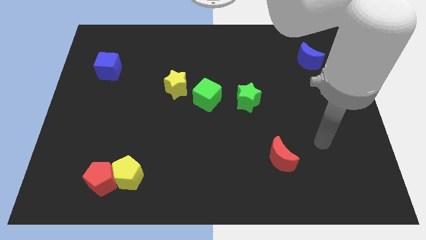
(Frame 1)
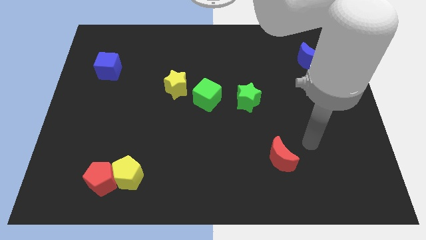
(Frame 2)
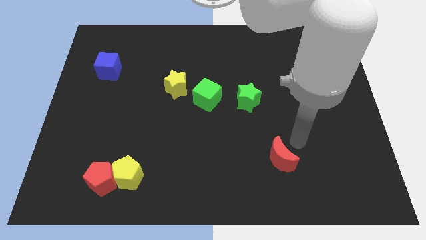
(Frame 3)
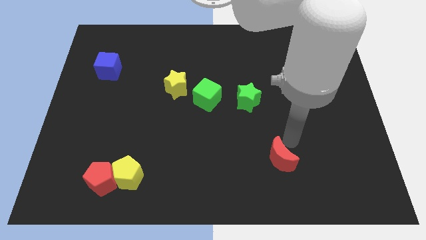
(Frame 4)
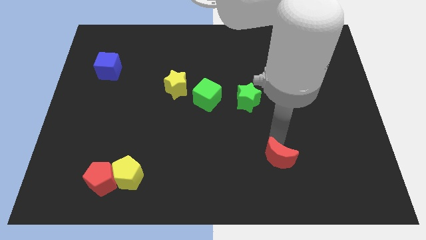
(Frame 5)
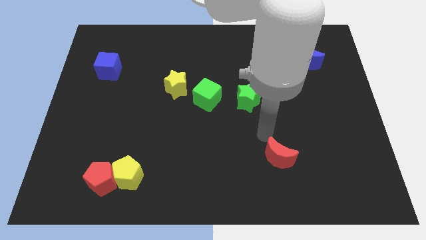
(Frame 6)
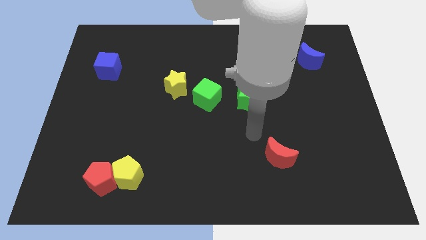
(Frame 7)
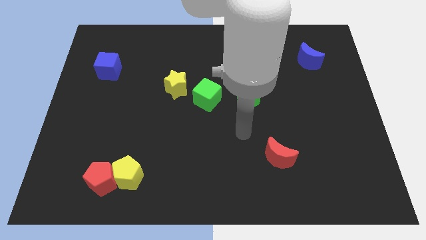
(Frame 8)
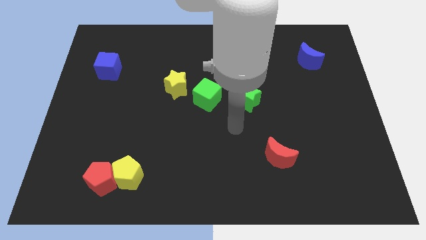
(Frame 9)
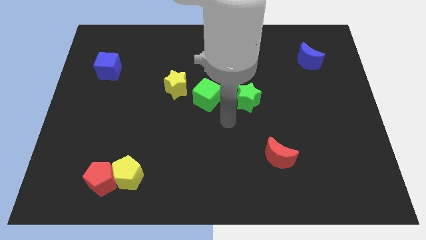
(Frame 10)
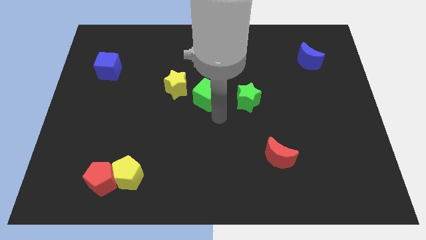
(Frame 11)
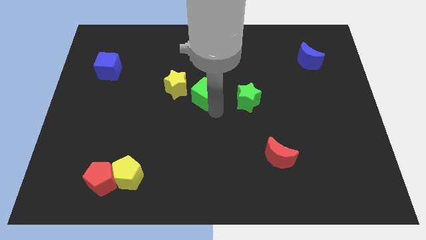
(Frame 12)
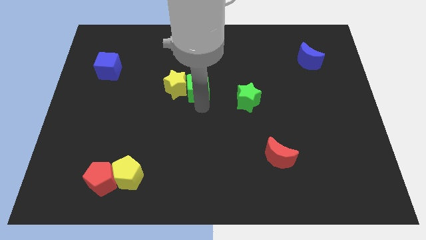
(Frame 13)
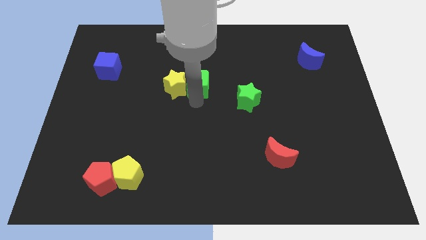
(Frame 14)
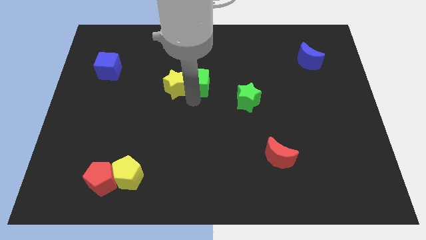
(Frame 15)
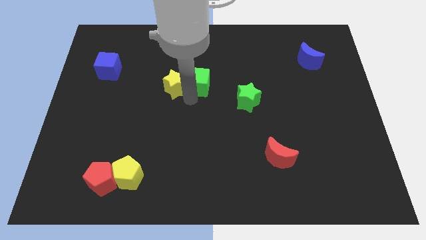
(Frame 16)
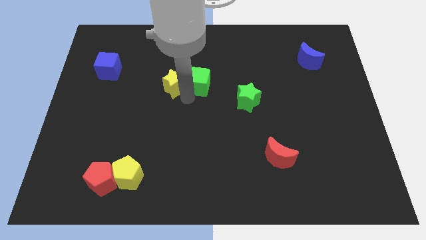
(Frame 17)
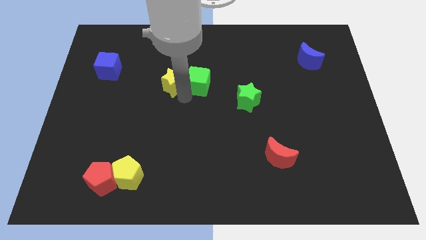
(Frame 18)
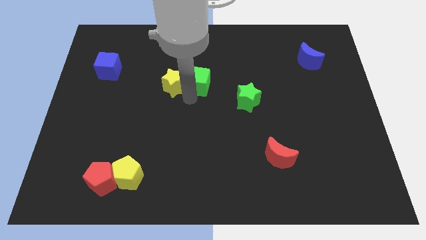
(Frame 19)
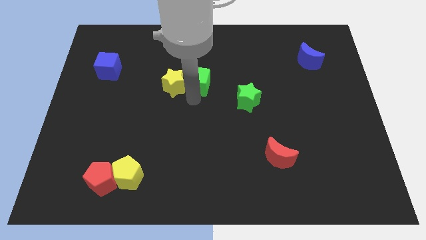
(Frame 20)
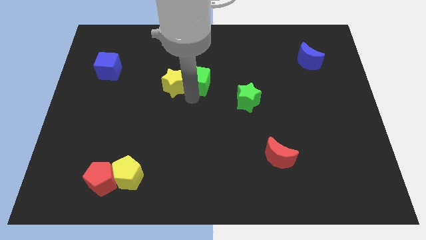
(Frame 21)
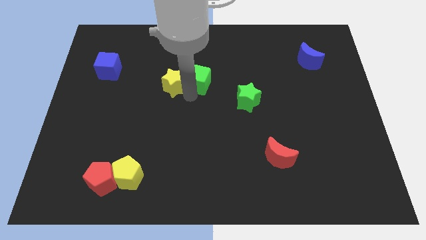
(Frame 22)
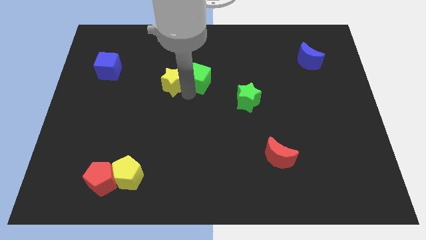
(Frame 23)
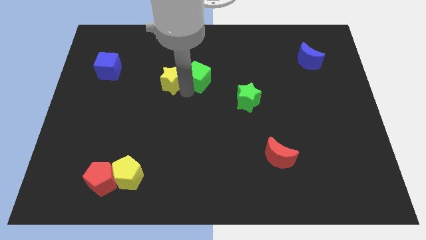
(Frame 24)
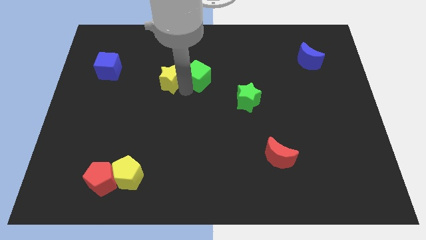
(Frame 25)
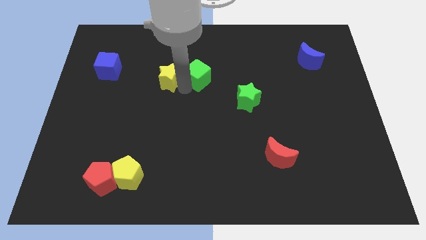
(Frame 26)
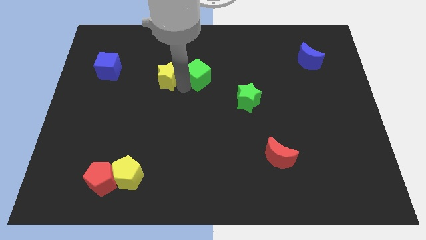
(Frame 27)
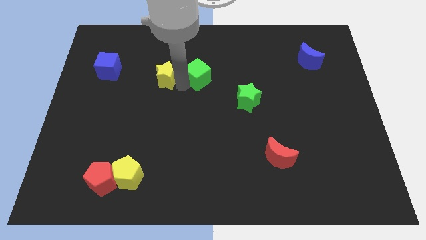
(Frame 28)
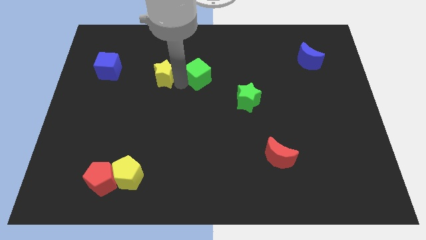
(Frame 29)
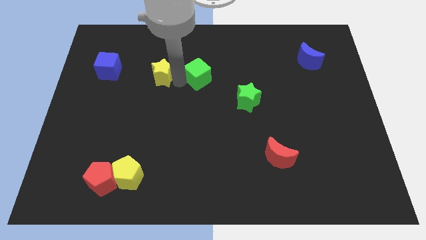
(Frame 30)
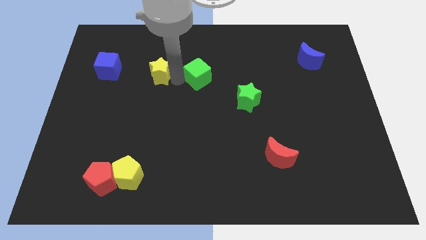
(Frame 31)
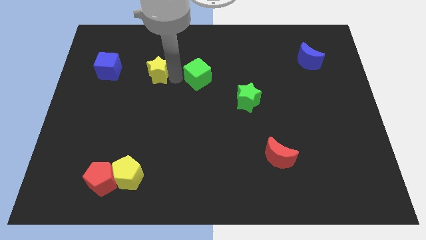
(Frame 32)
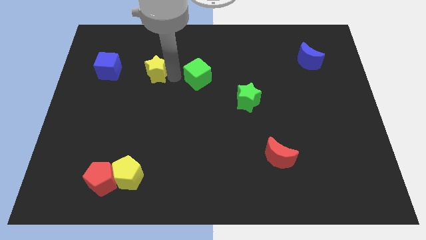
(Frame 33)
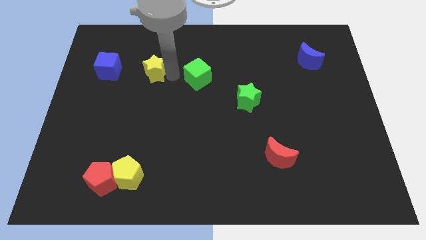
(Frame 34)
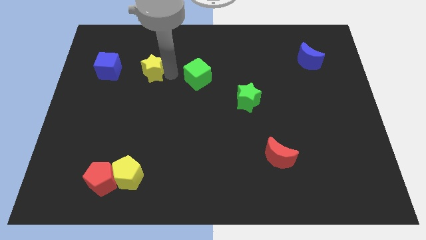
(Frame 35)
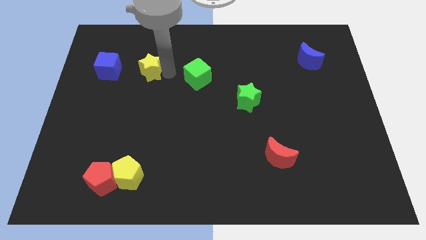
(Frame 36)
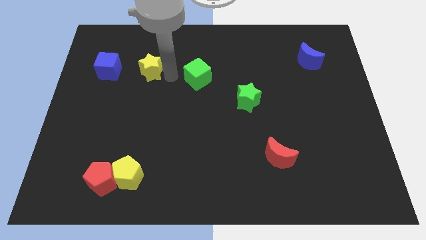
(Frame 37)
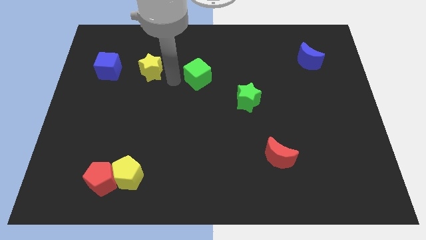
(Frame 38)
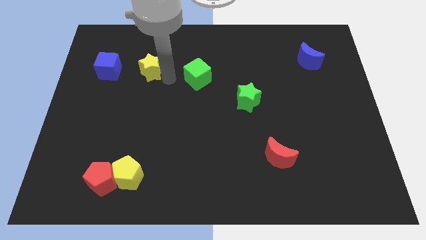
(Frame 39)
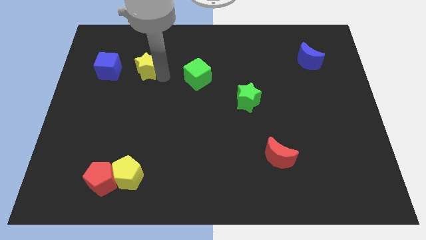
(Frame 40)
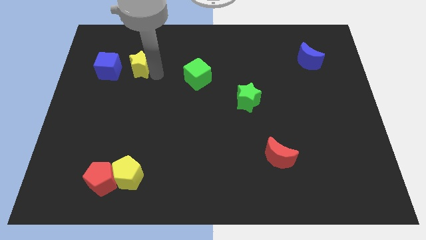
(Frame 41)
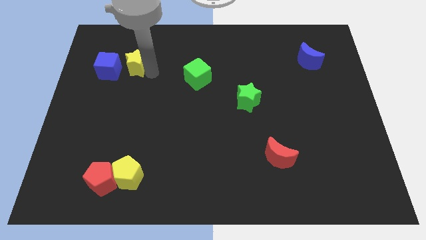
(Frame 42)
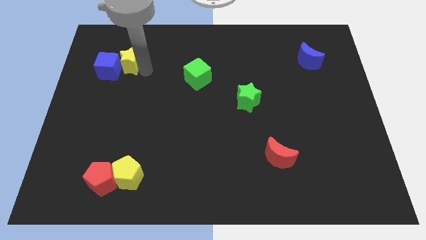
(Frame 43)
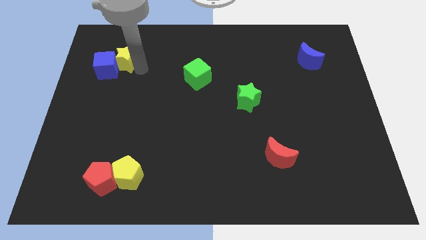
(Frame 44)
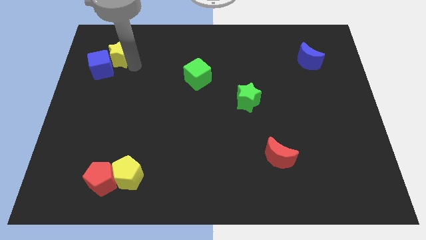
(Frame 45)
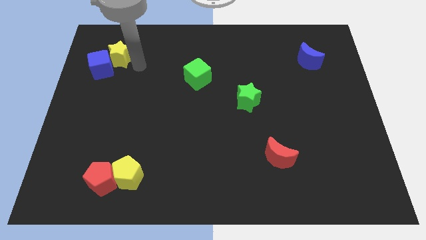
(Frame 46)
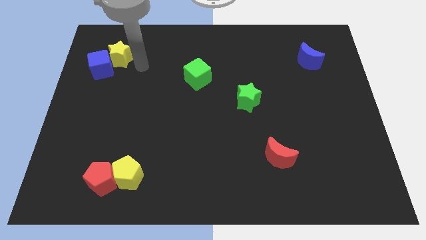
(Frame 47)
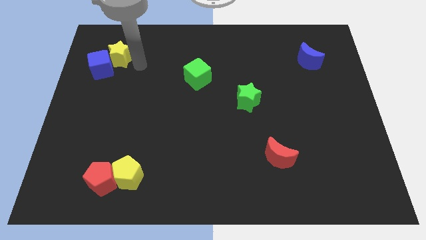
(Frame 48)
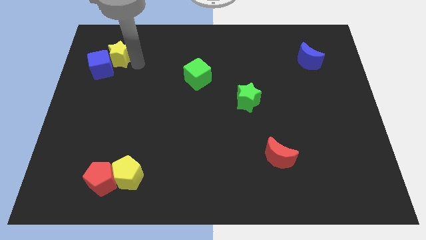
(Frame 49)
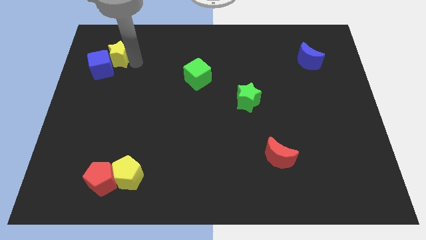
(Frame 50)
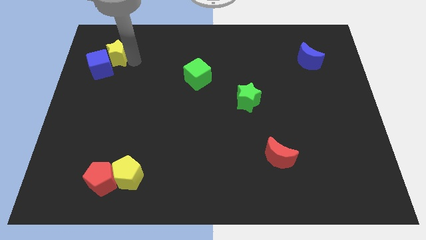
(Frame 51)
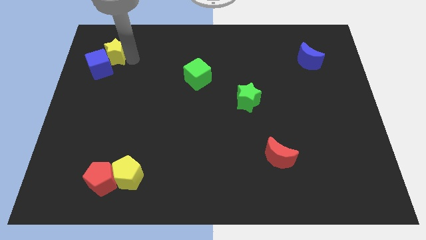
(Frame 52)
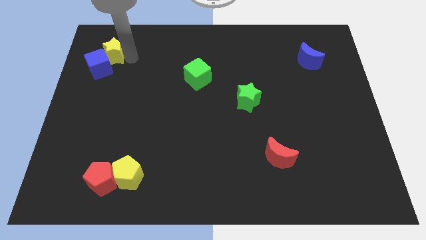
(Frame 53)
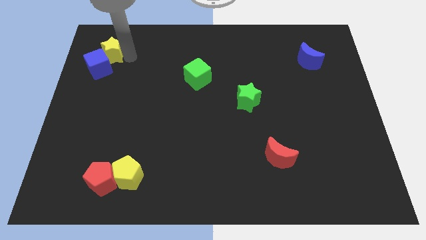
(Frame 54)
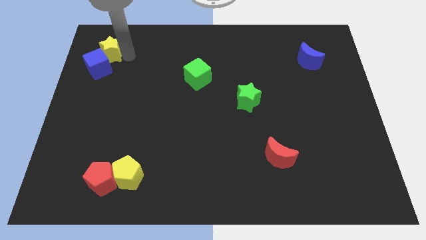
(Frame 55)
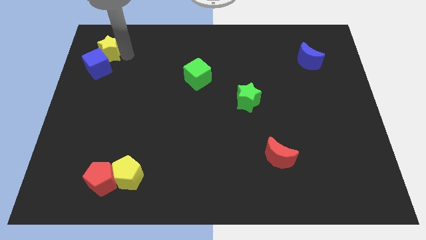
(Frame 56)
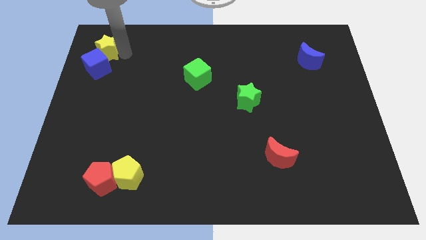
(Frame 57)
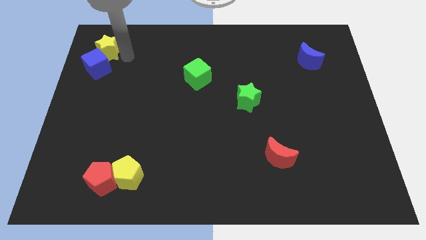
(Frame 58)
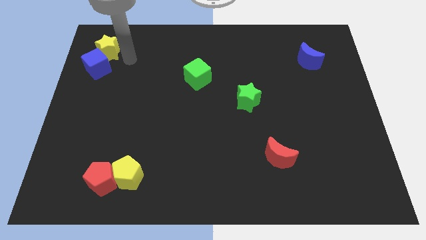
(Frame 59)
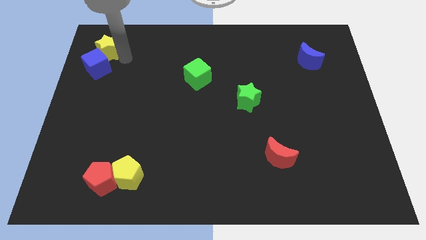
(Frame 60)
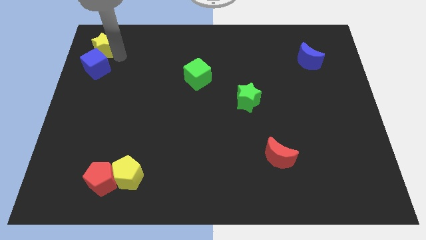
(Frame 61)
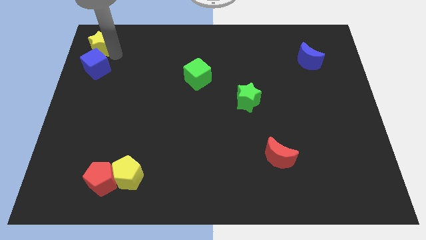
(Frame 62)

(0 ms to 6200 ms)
put the yellow star to the top left of the board

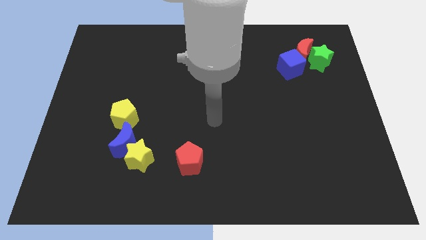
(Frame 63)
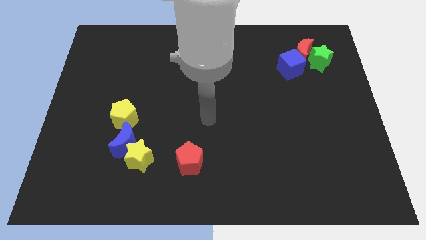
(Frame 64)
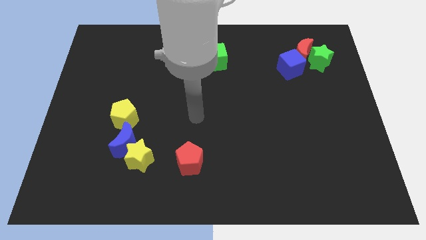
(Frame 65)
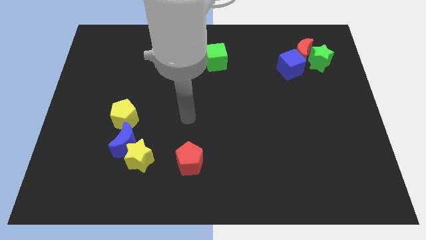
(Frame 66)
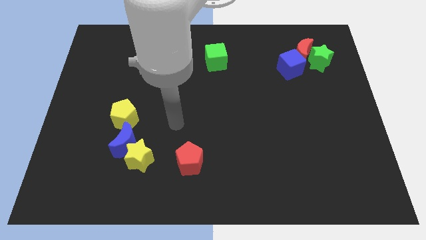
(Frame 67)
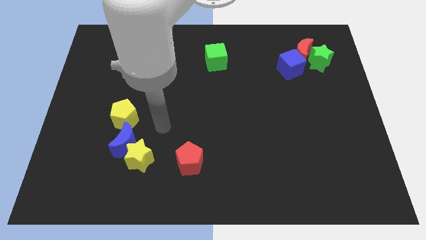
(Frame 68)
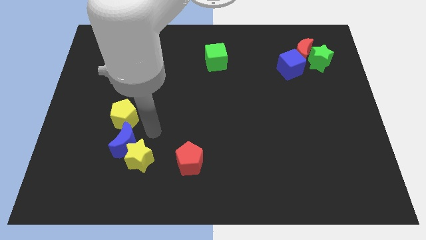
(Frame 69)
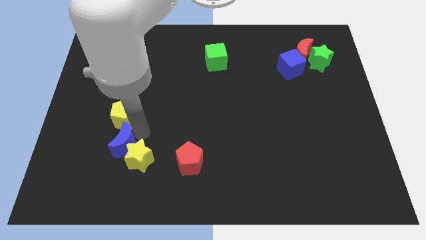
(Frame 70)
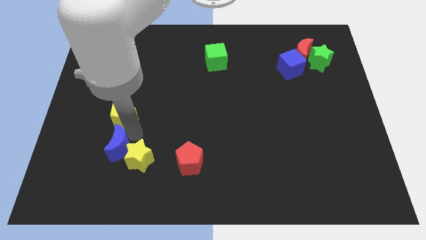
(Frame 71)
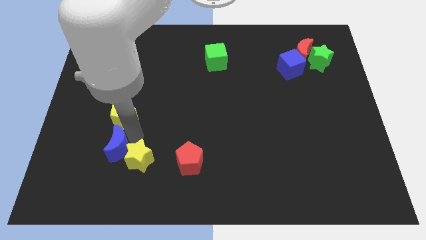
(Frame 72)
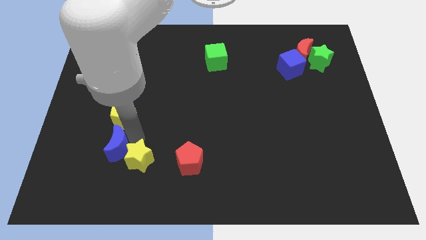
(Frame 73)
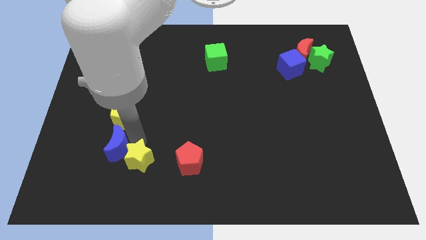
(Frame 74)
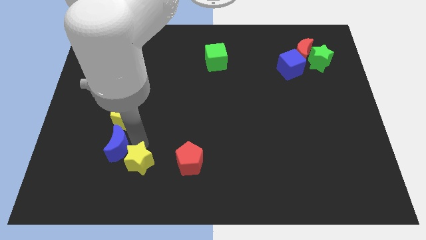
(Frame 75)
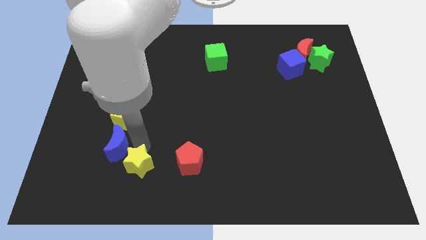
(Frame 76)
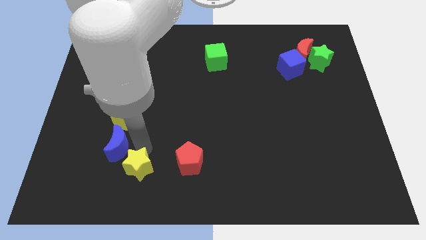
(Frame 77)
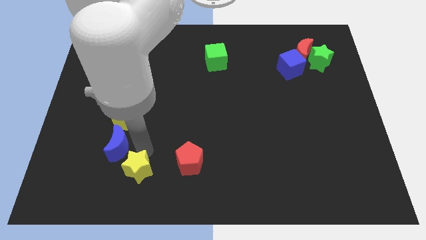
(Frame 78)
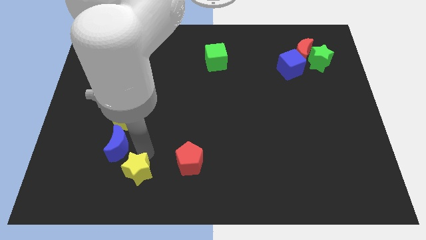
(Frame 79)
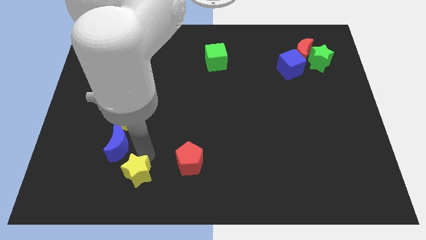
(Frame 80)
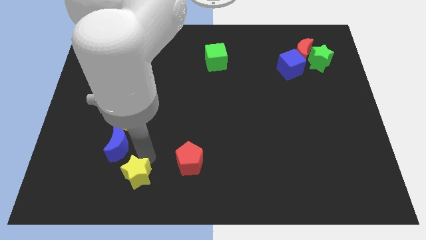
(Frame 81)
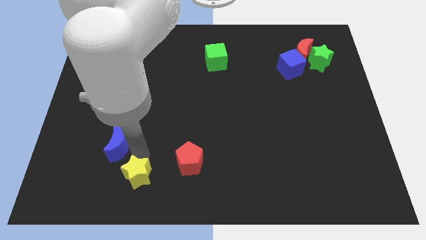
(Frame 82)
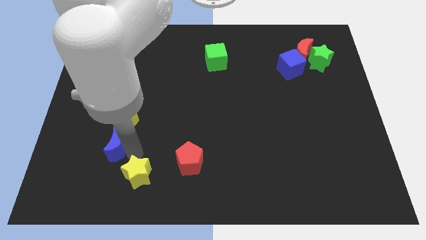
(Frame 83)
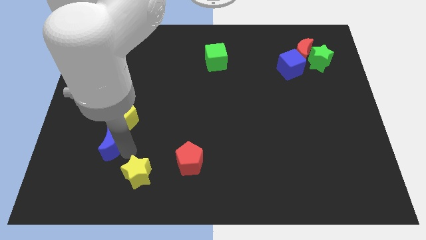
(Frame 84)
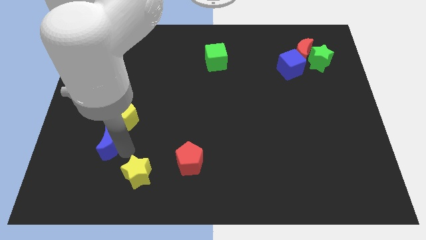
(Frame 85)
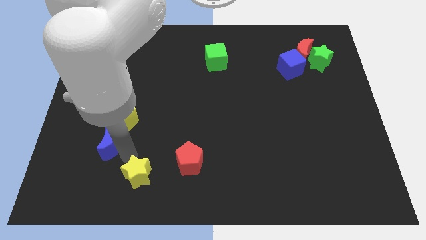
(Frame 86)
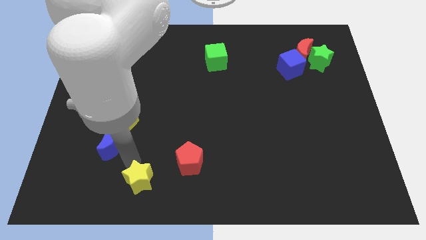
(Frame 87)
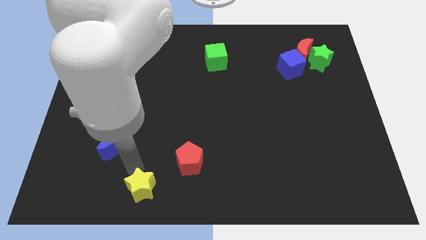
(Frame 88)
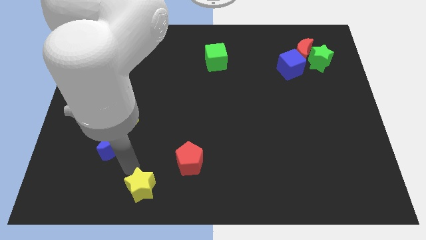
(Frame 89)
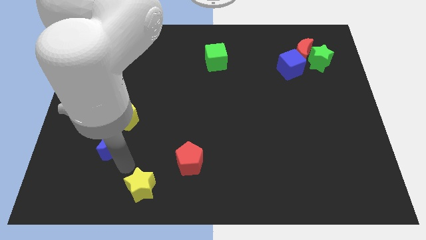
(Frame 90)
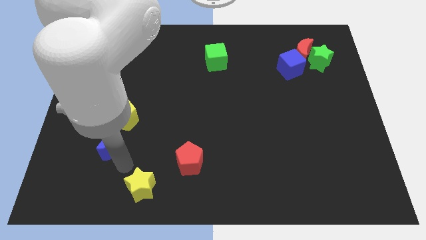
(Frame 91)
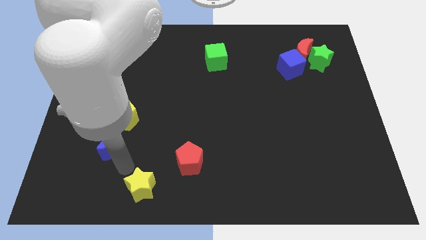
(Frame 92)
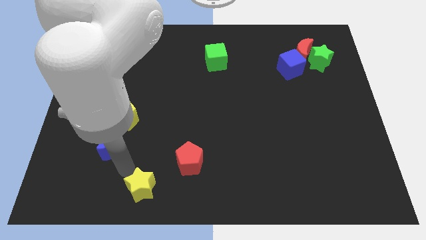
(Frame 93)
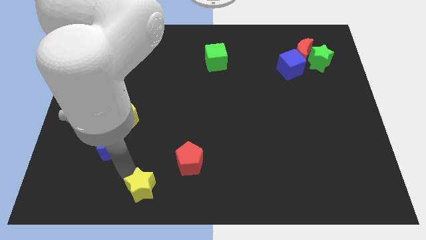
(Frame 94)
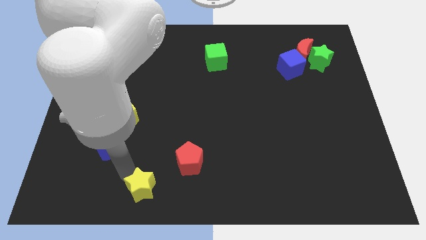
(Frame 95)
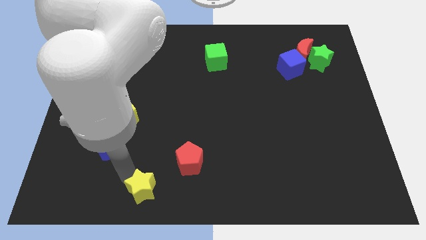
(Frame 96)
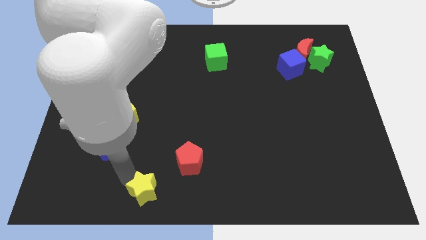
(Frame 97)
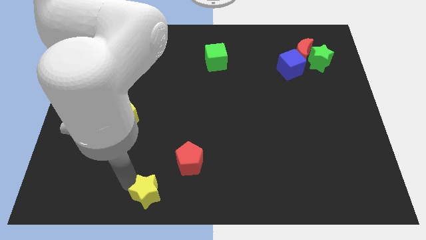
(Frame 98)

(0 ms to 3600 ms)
put the yellow star to the bottom
